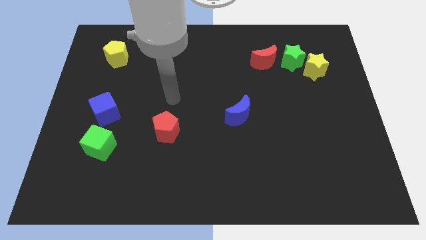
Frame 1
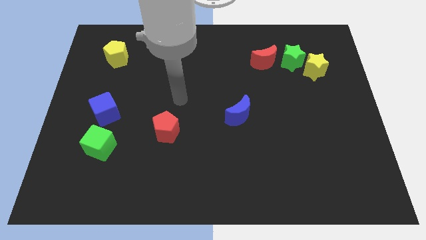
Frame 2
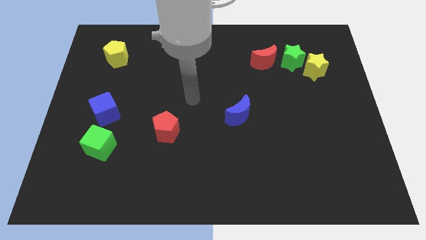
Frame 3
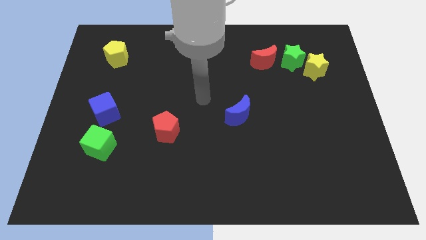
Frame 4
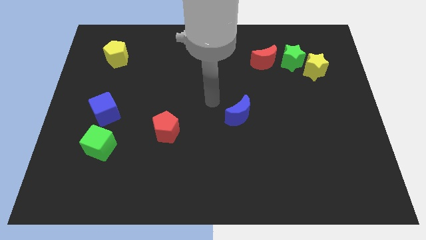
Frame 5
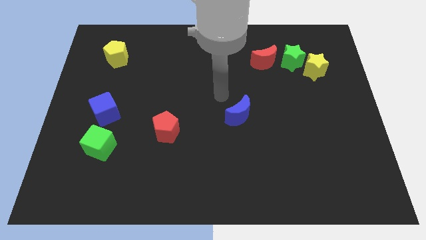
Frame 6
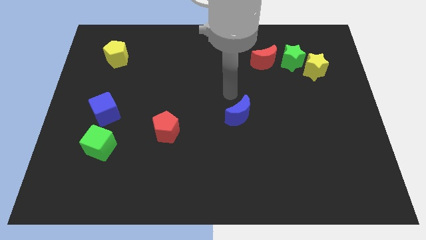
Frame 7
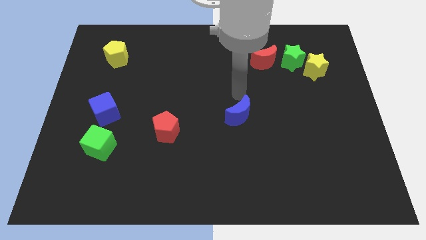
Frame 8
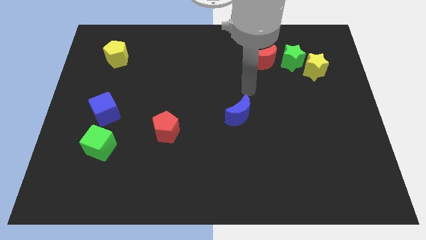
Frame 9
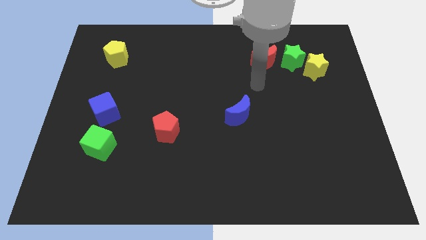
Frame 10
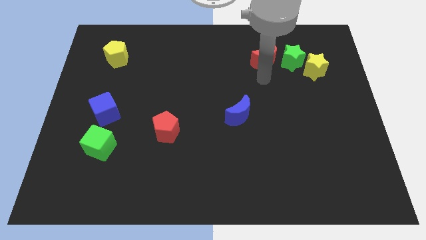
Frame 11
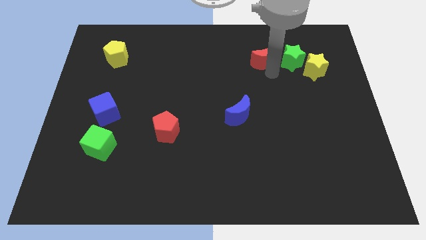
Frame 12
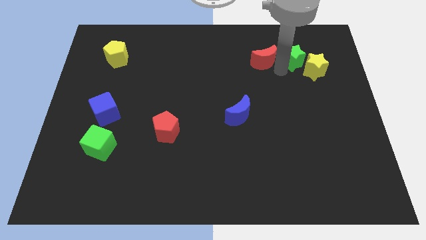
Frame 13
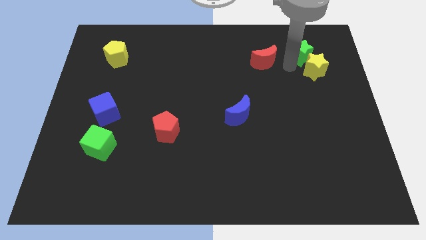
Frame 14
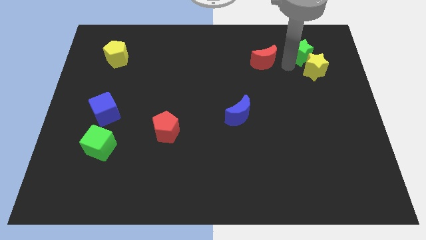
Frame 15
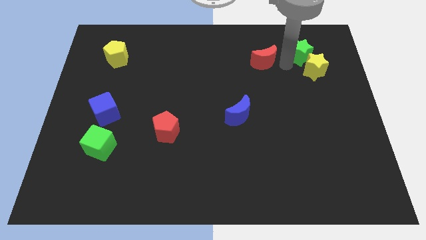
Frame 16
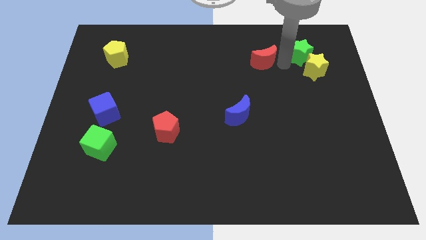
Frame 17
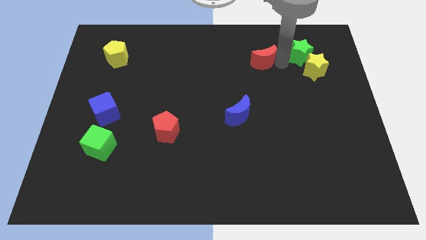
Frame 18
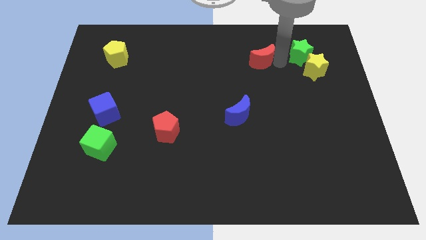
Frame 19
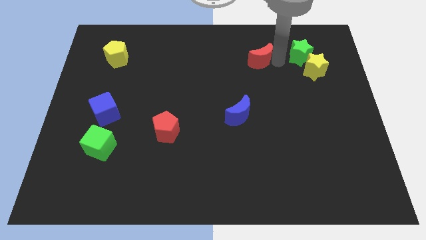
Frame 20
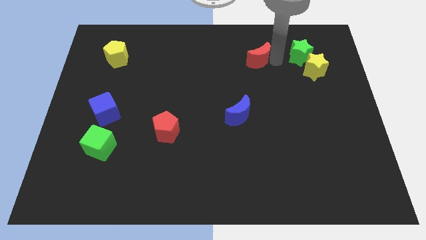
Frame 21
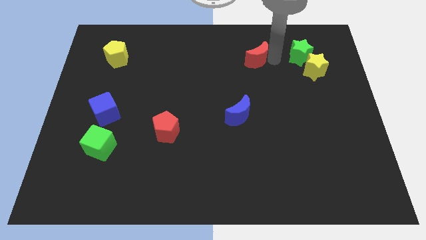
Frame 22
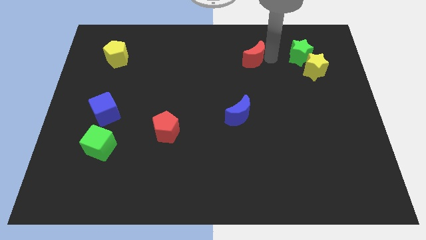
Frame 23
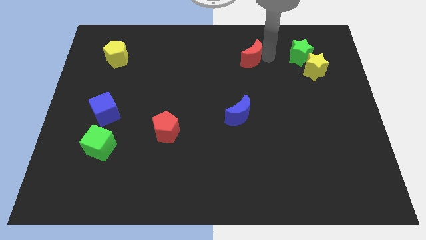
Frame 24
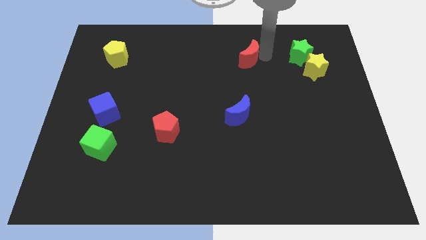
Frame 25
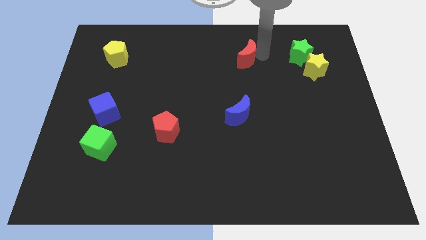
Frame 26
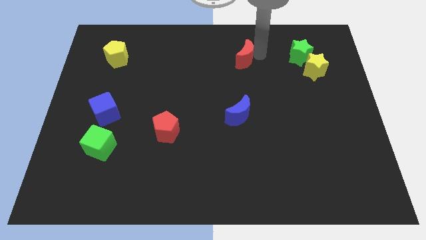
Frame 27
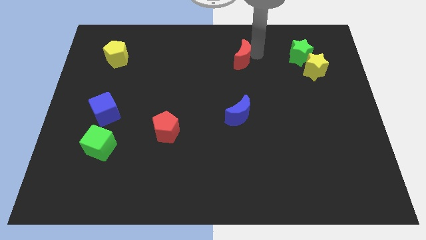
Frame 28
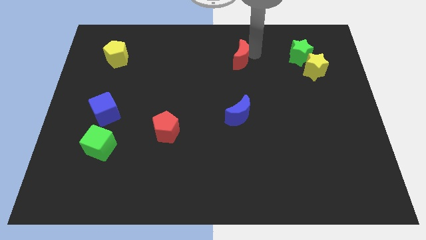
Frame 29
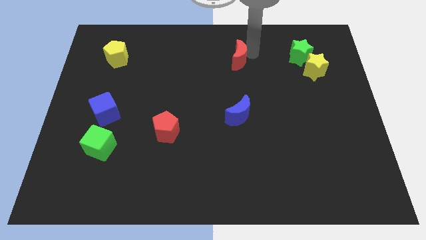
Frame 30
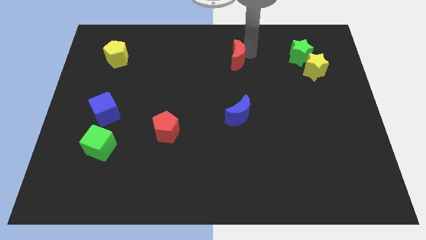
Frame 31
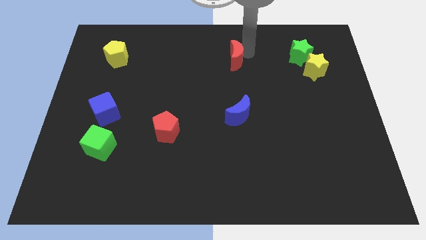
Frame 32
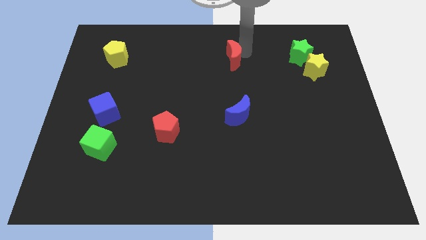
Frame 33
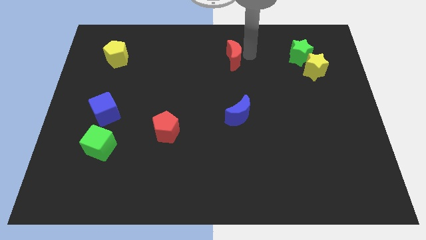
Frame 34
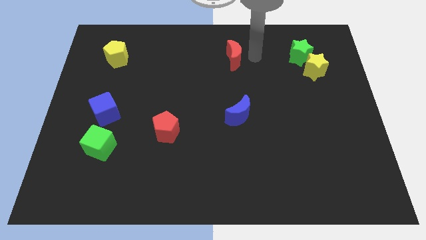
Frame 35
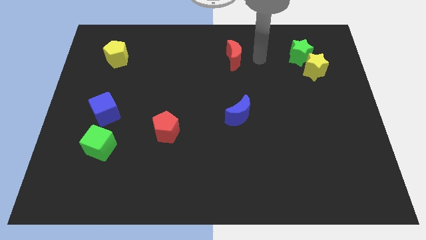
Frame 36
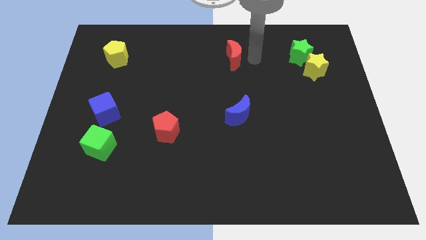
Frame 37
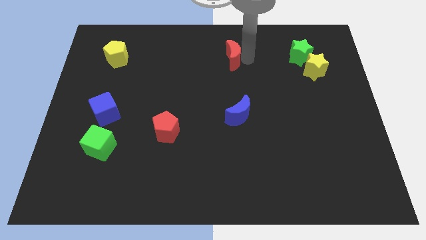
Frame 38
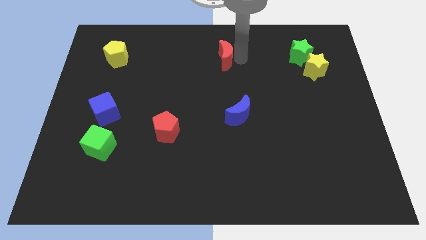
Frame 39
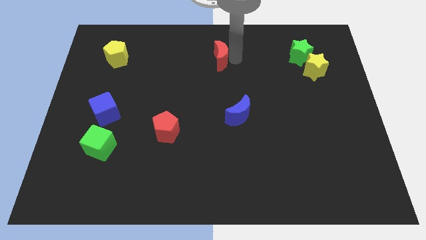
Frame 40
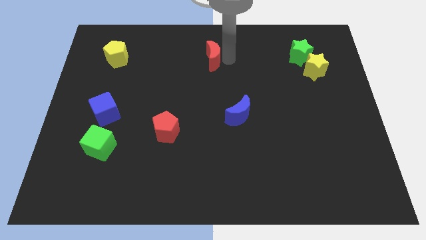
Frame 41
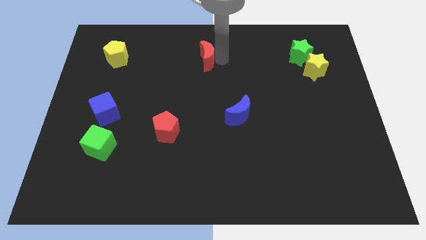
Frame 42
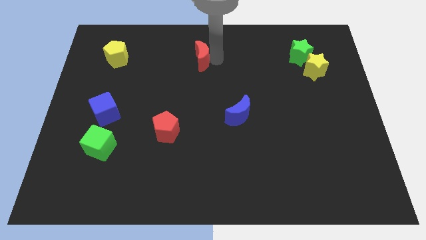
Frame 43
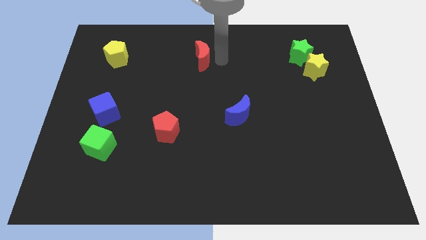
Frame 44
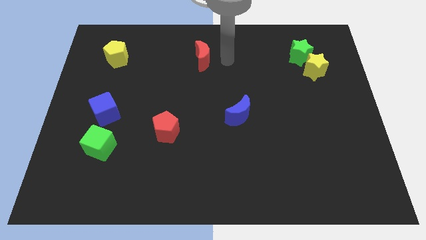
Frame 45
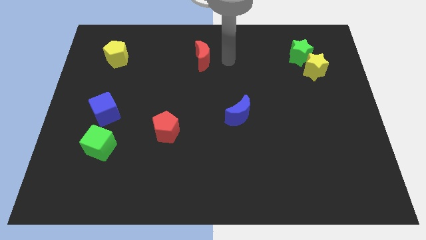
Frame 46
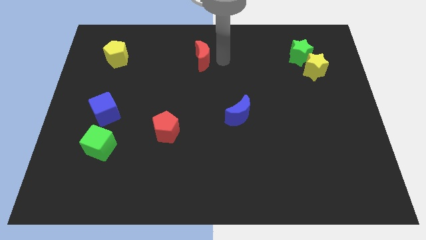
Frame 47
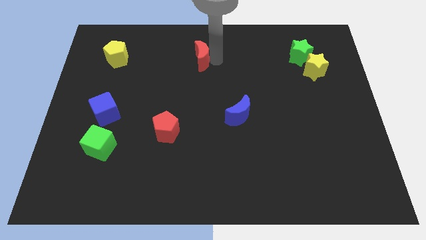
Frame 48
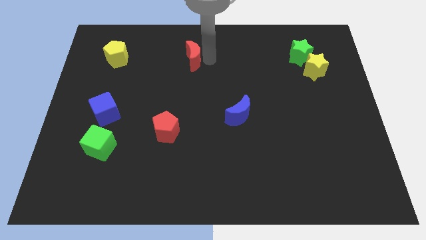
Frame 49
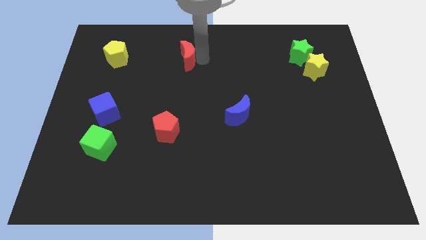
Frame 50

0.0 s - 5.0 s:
slide the red moon left

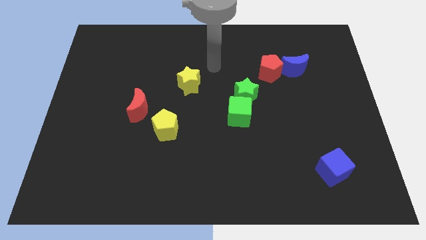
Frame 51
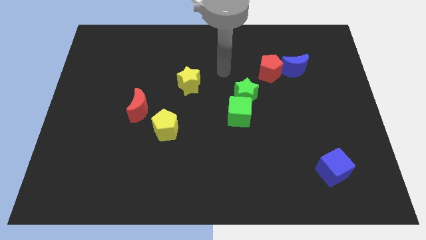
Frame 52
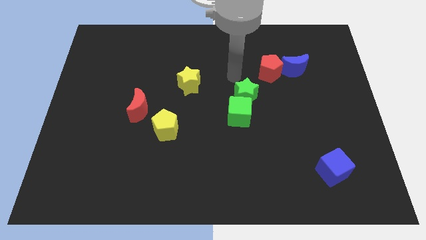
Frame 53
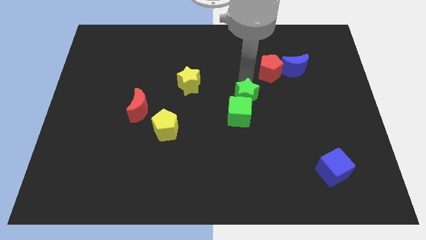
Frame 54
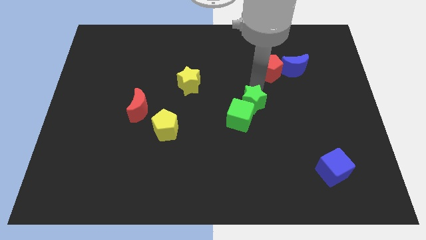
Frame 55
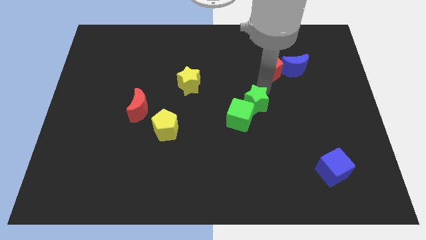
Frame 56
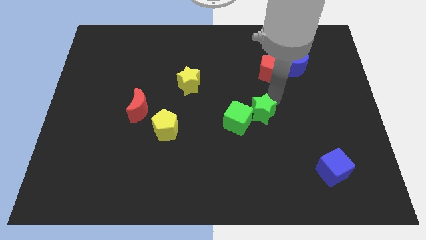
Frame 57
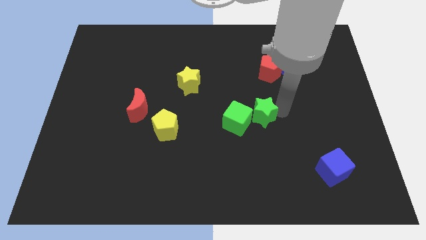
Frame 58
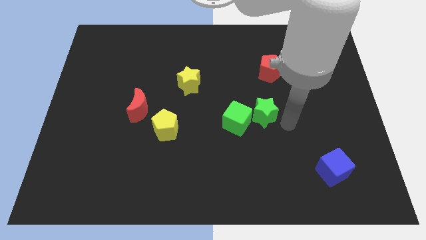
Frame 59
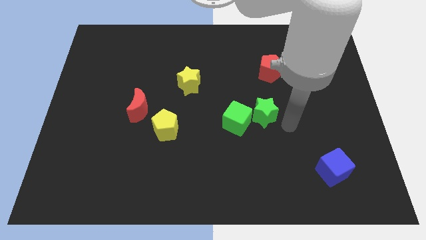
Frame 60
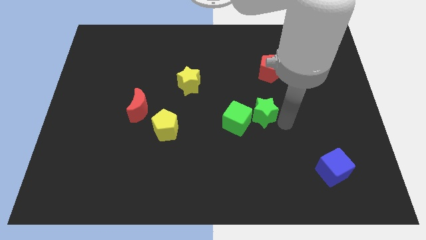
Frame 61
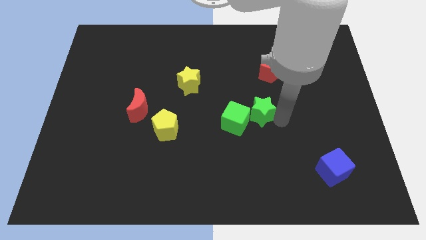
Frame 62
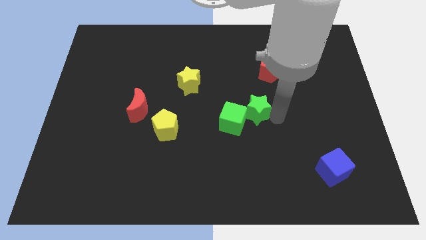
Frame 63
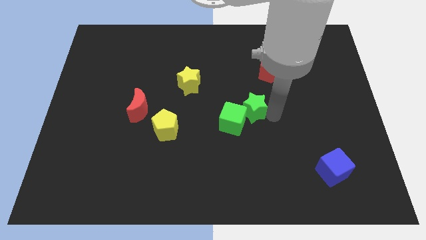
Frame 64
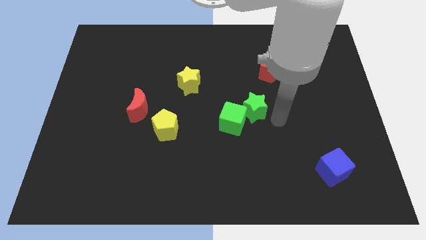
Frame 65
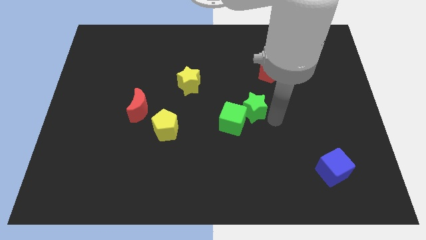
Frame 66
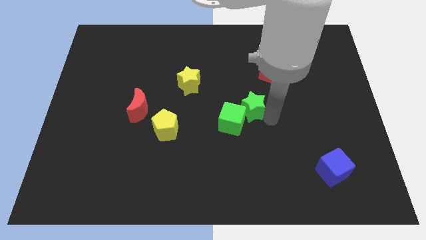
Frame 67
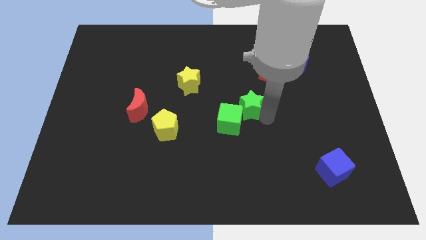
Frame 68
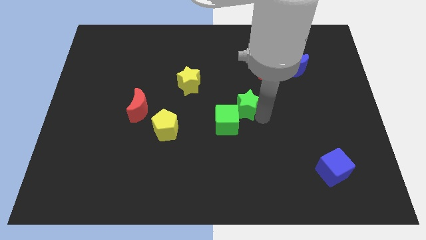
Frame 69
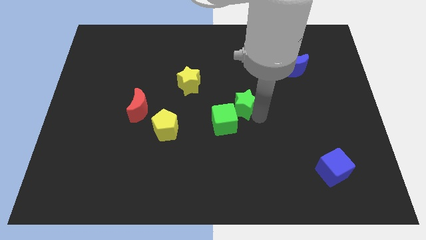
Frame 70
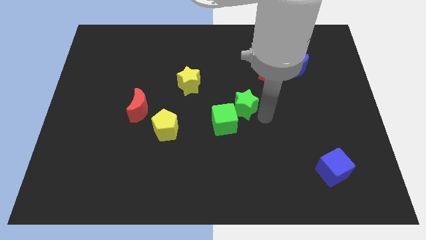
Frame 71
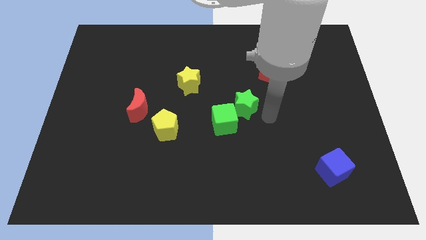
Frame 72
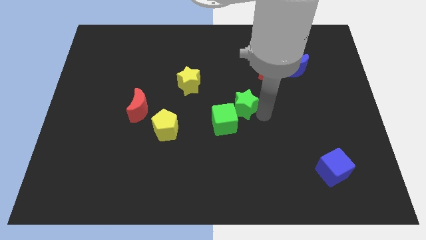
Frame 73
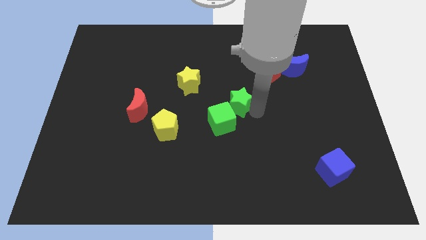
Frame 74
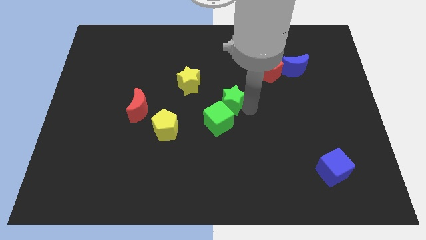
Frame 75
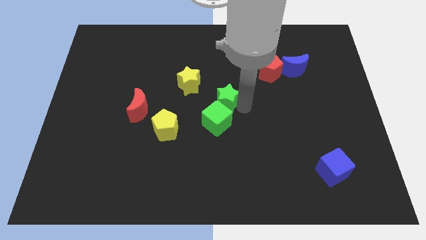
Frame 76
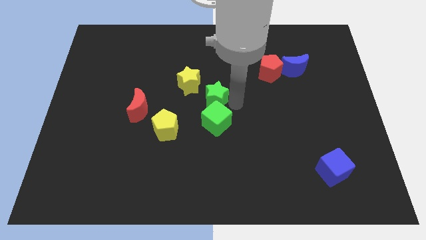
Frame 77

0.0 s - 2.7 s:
push the green star left slightly

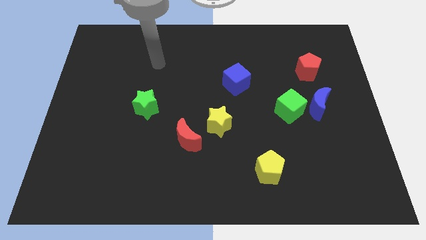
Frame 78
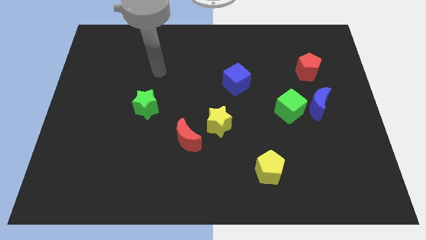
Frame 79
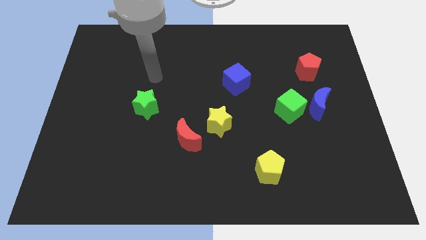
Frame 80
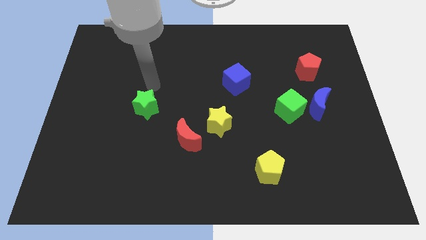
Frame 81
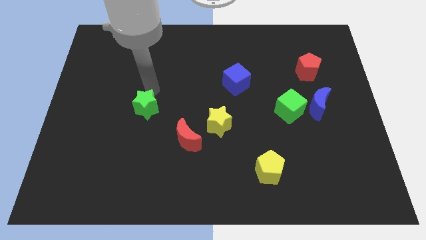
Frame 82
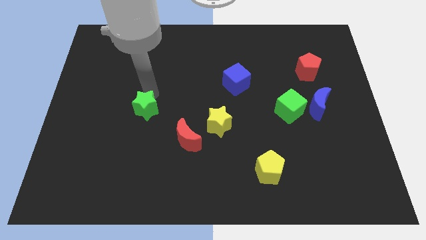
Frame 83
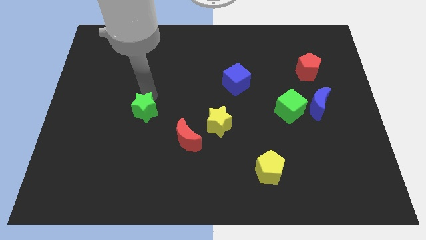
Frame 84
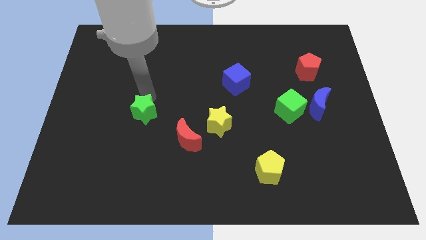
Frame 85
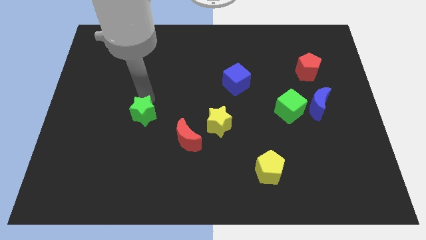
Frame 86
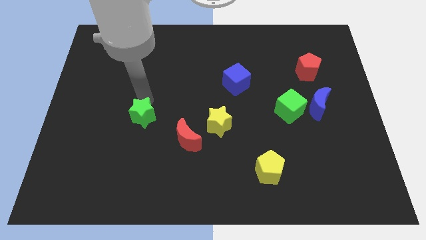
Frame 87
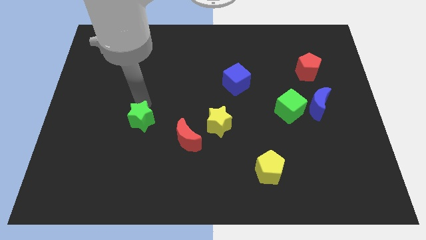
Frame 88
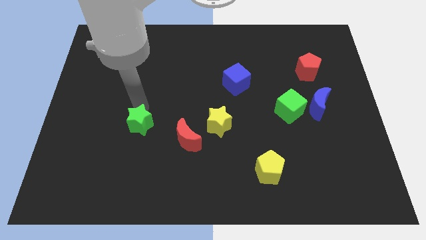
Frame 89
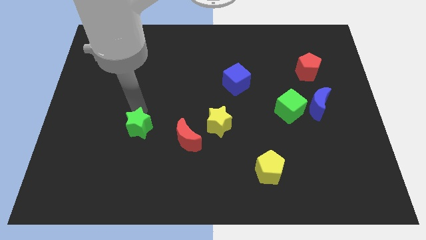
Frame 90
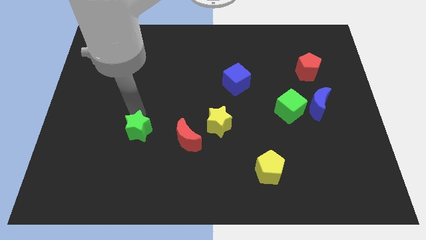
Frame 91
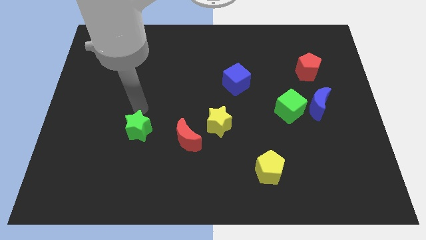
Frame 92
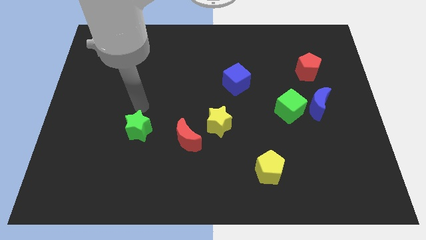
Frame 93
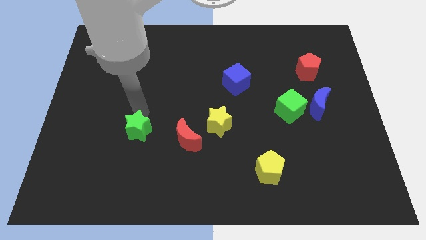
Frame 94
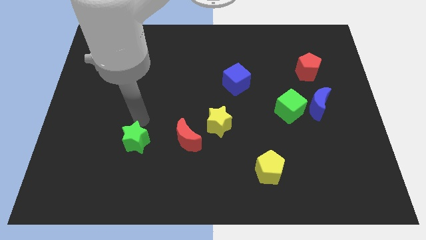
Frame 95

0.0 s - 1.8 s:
slide the green star a little downwards
